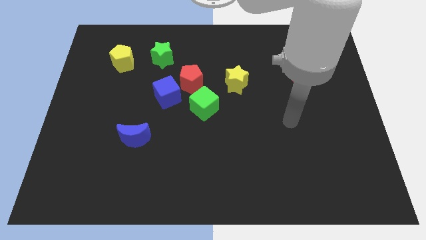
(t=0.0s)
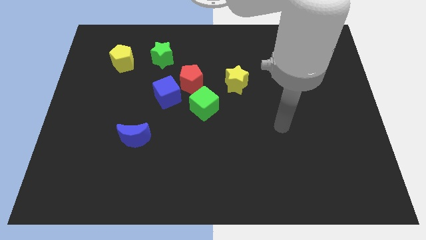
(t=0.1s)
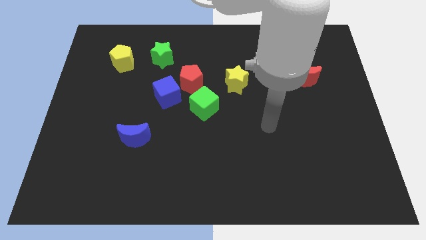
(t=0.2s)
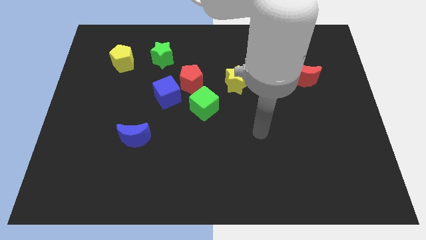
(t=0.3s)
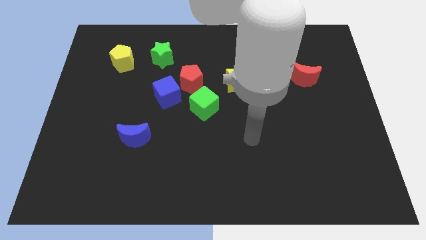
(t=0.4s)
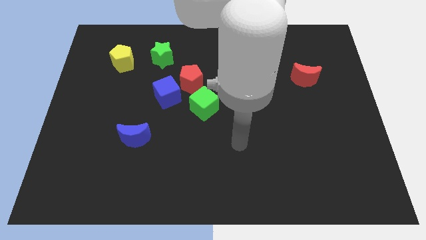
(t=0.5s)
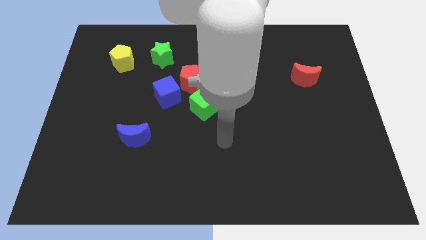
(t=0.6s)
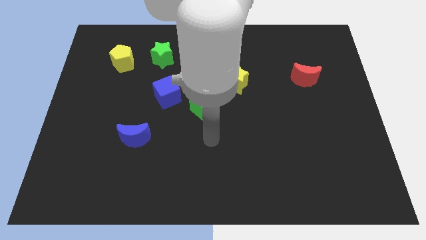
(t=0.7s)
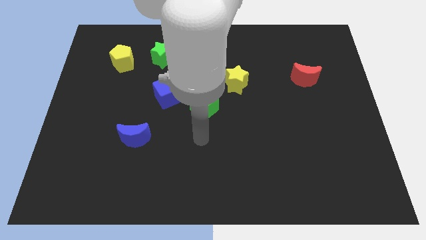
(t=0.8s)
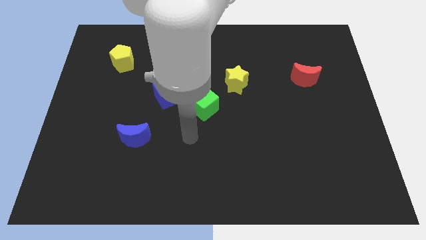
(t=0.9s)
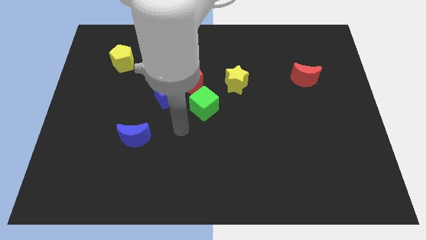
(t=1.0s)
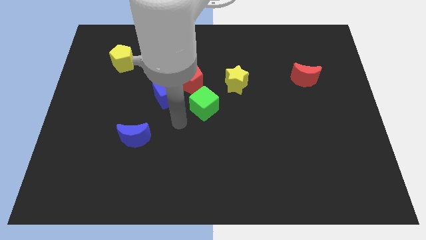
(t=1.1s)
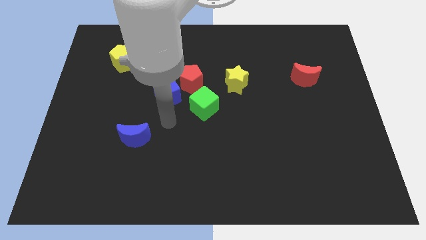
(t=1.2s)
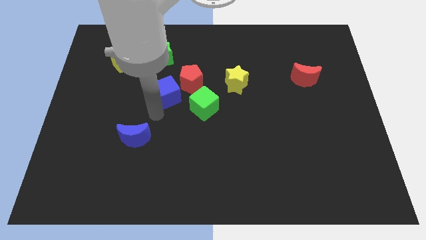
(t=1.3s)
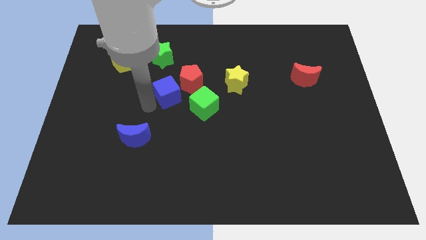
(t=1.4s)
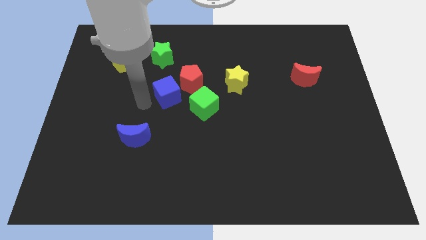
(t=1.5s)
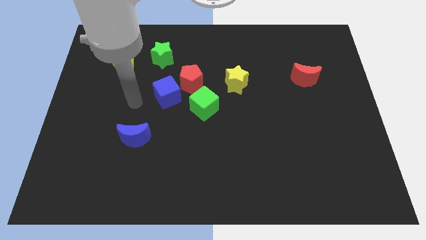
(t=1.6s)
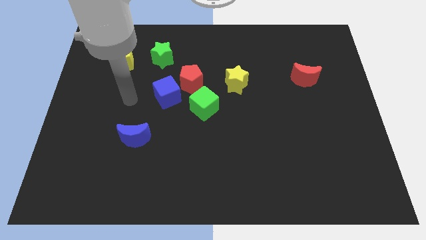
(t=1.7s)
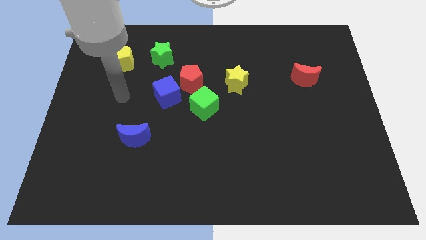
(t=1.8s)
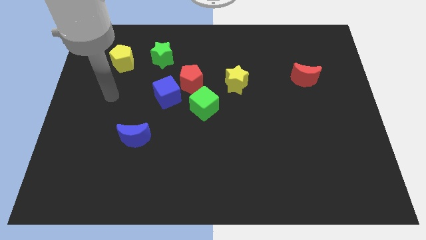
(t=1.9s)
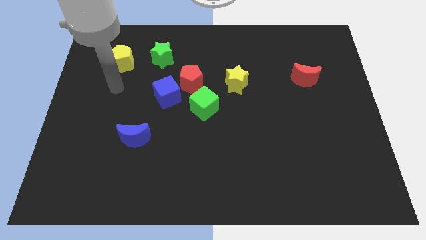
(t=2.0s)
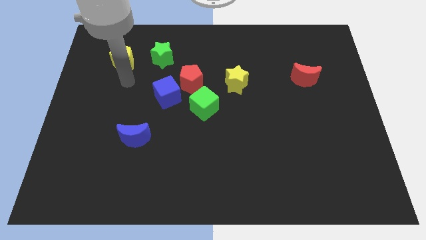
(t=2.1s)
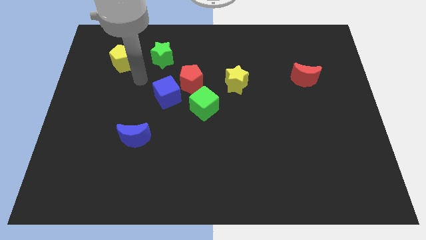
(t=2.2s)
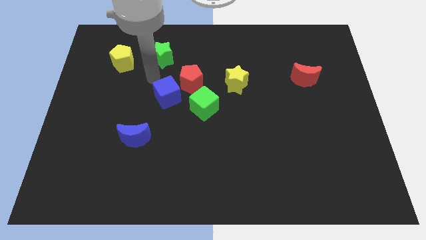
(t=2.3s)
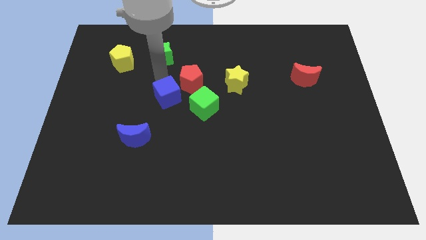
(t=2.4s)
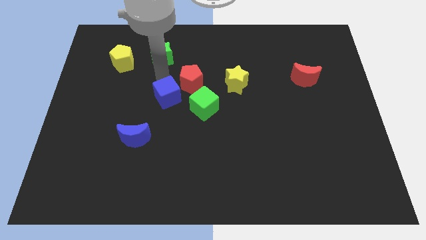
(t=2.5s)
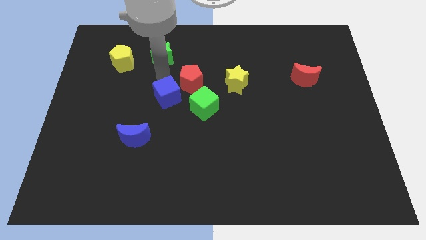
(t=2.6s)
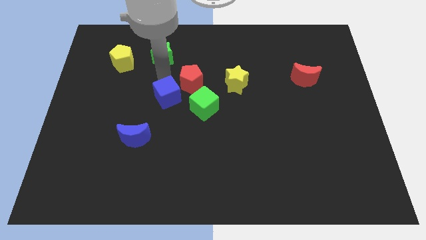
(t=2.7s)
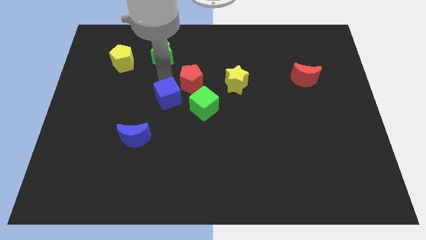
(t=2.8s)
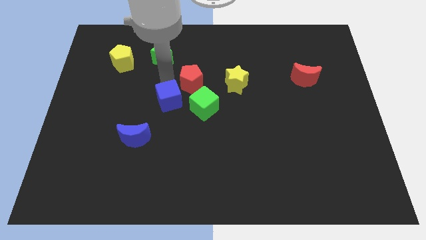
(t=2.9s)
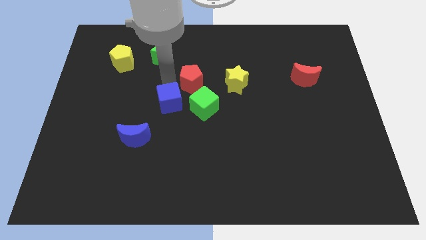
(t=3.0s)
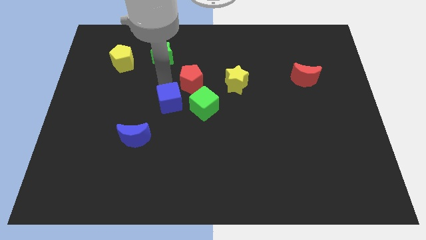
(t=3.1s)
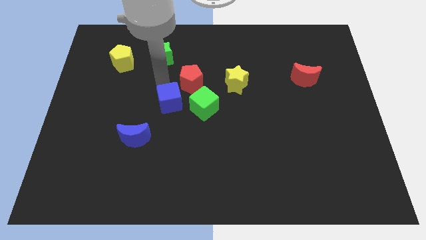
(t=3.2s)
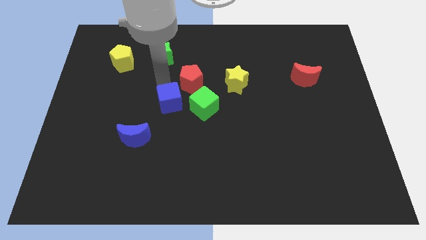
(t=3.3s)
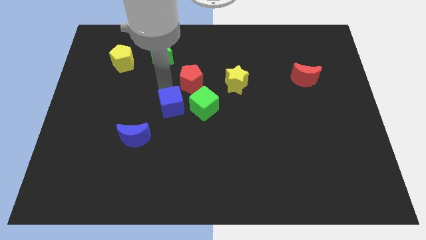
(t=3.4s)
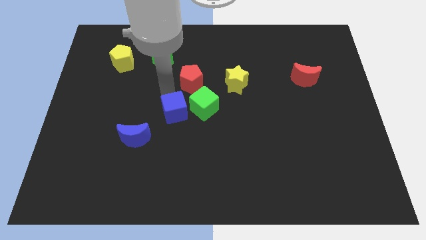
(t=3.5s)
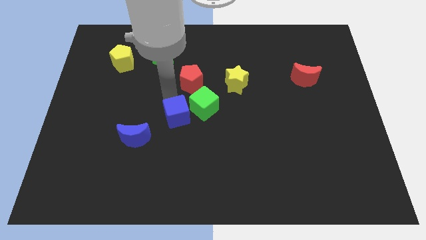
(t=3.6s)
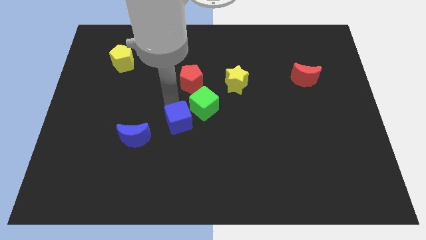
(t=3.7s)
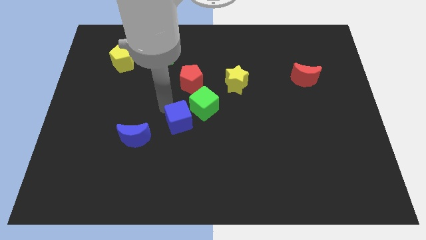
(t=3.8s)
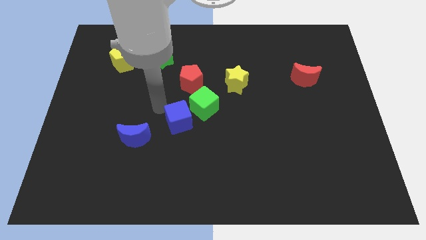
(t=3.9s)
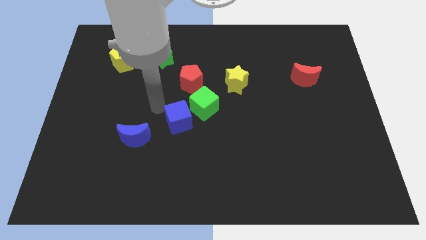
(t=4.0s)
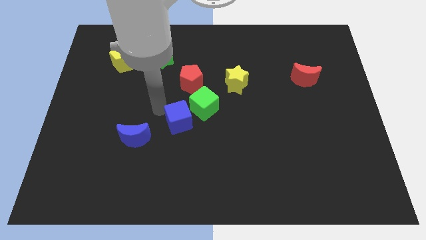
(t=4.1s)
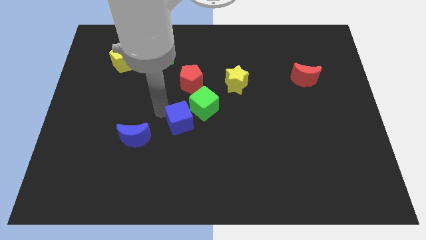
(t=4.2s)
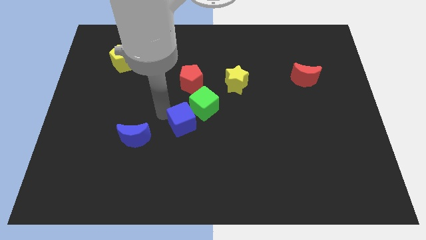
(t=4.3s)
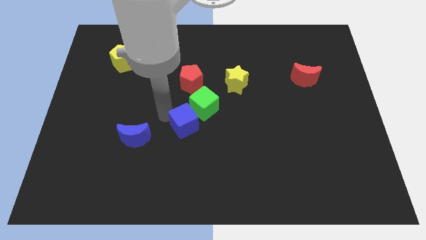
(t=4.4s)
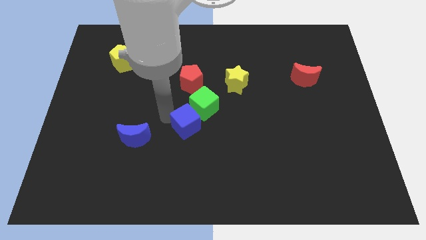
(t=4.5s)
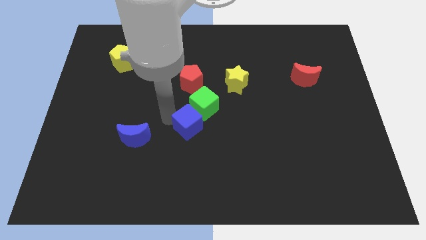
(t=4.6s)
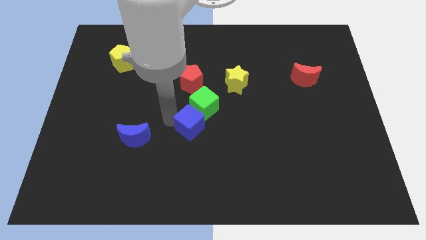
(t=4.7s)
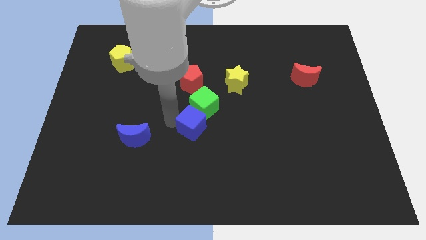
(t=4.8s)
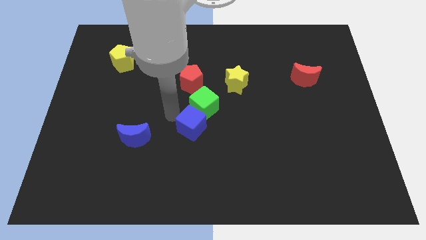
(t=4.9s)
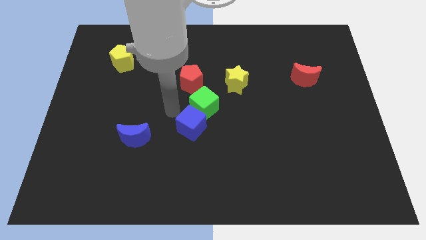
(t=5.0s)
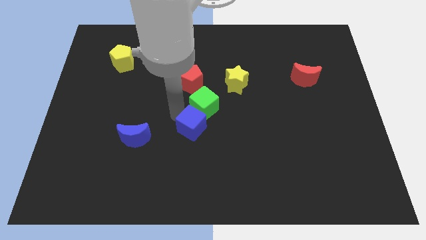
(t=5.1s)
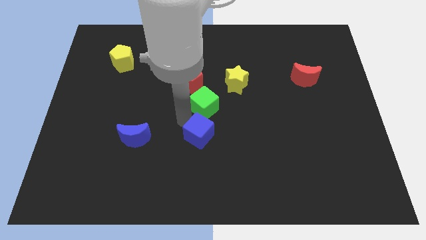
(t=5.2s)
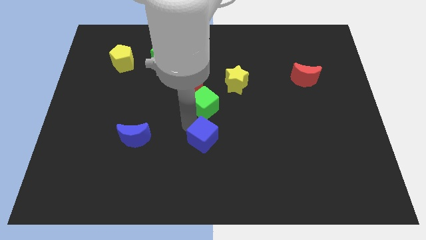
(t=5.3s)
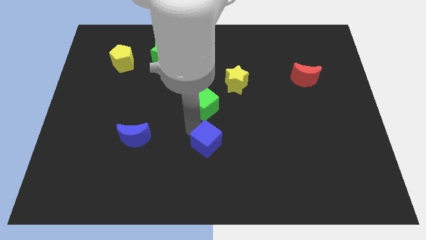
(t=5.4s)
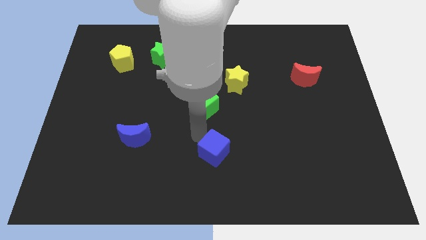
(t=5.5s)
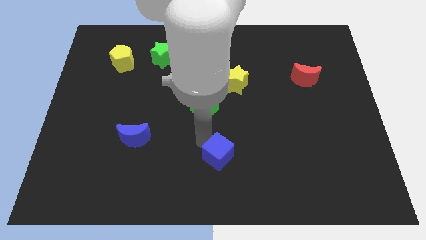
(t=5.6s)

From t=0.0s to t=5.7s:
push the blue cube down and then to the right

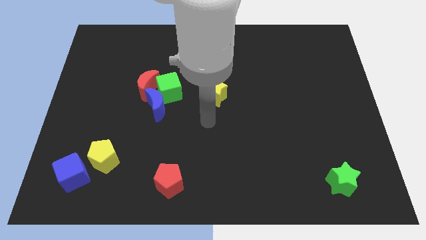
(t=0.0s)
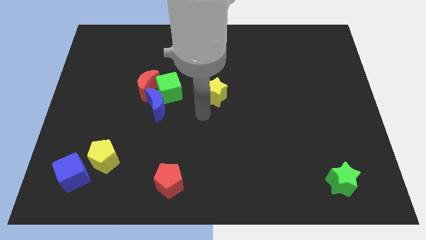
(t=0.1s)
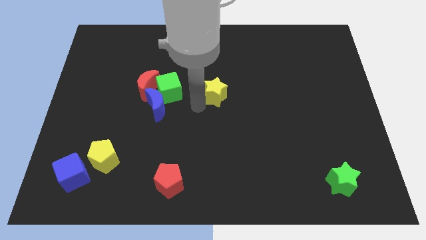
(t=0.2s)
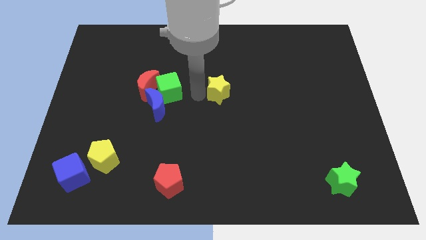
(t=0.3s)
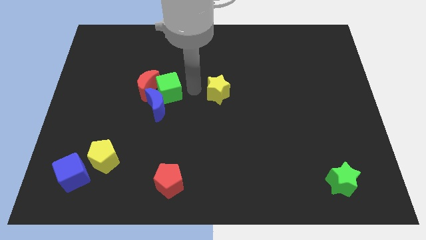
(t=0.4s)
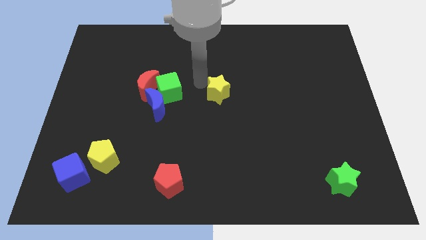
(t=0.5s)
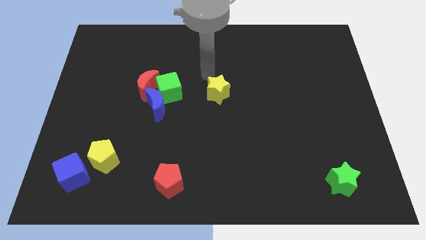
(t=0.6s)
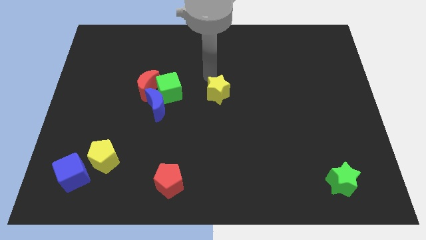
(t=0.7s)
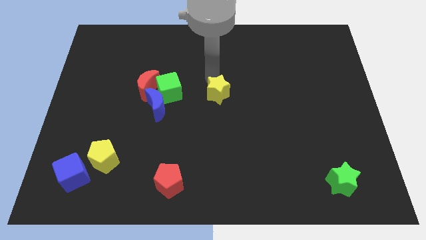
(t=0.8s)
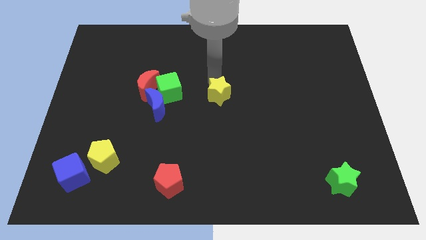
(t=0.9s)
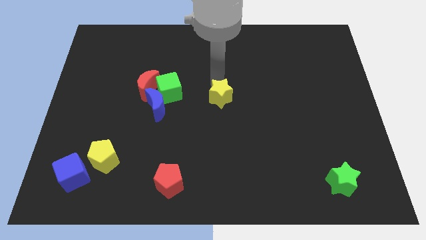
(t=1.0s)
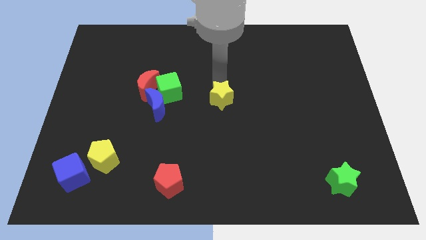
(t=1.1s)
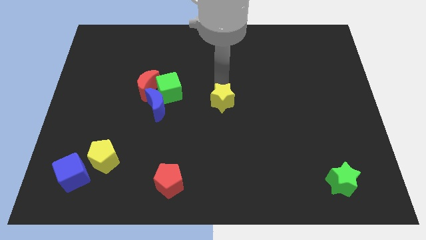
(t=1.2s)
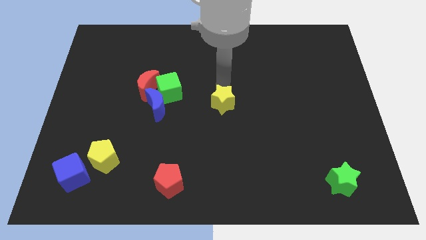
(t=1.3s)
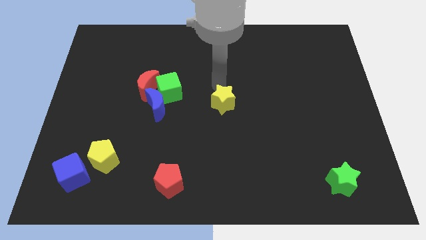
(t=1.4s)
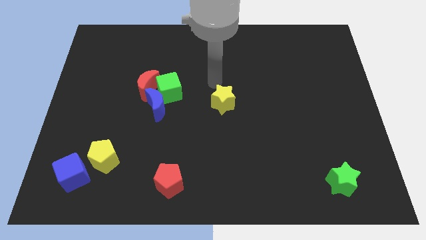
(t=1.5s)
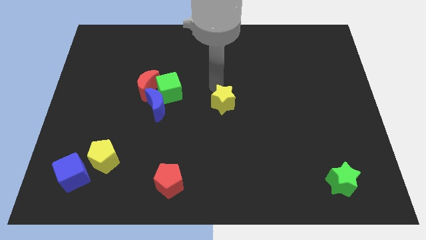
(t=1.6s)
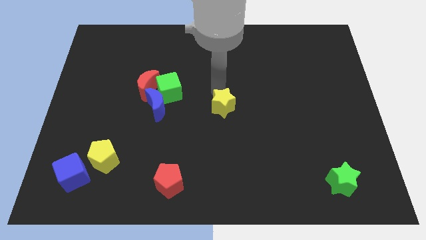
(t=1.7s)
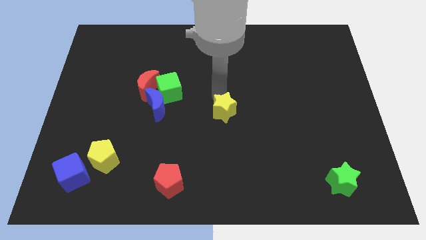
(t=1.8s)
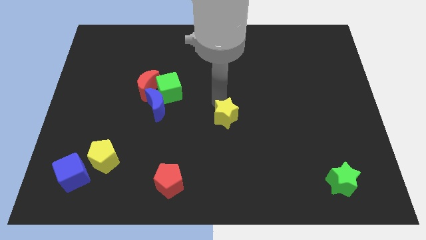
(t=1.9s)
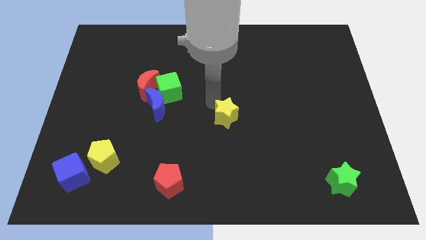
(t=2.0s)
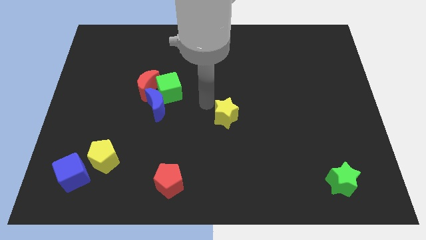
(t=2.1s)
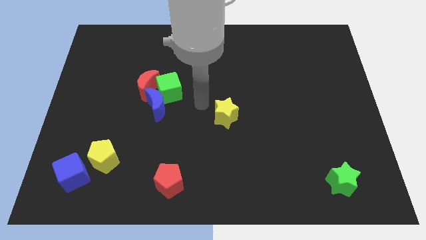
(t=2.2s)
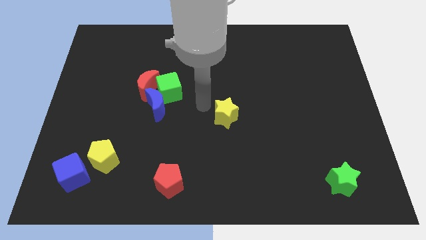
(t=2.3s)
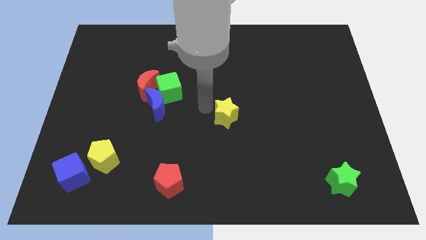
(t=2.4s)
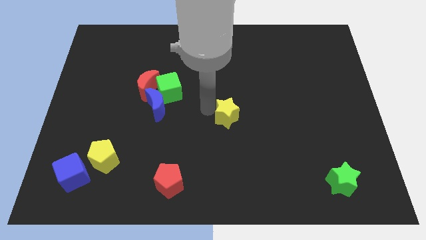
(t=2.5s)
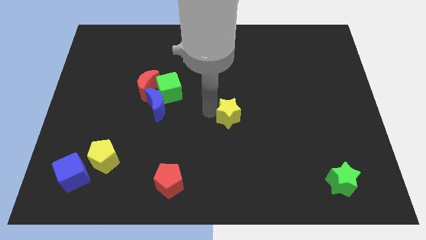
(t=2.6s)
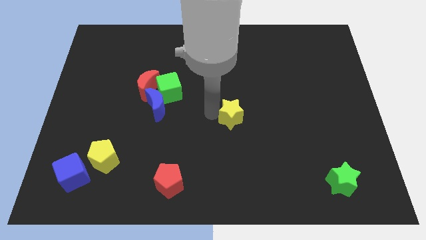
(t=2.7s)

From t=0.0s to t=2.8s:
slightly slide the yellow star diagonally down and to the right
